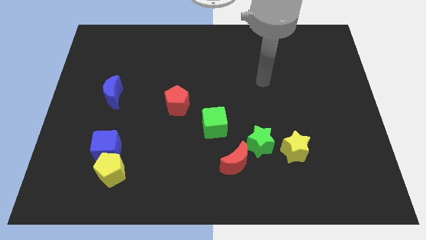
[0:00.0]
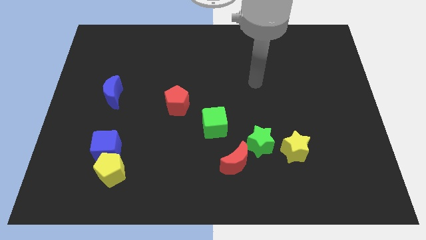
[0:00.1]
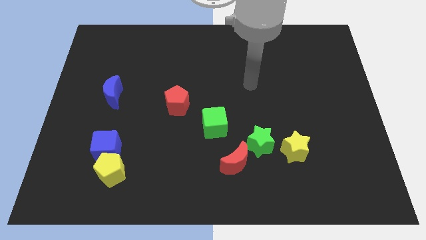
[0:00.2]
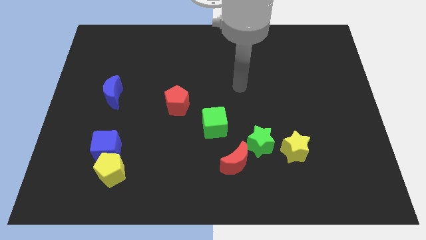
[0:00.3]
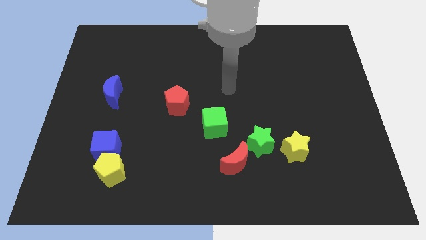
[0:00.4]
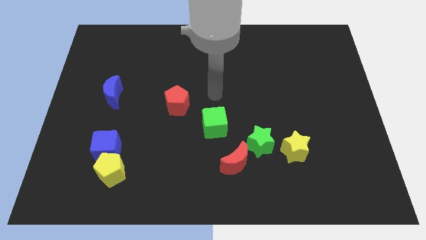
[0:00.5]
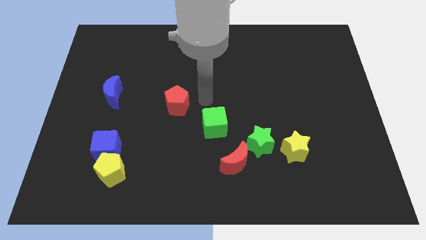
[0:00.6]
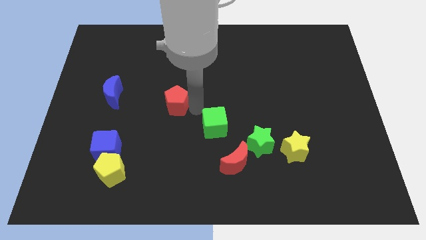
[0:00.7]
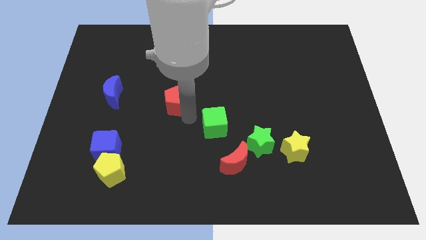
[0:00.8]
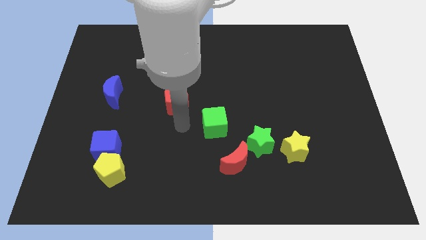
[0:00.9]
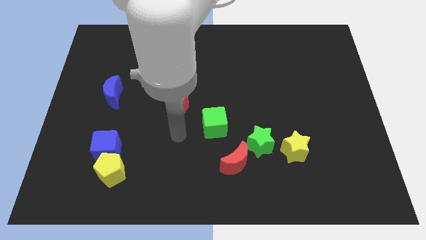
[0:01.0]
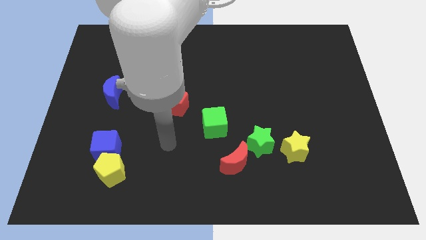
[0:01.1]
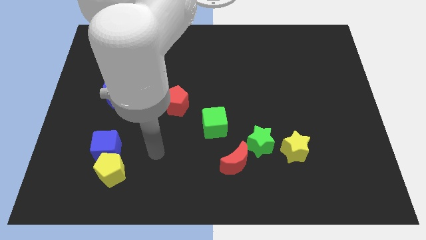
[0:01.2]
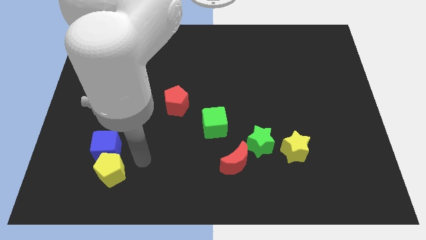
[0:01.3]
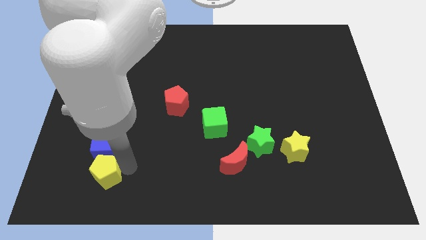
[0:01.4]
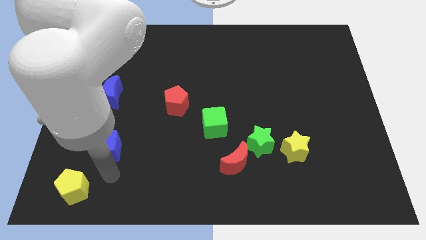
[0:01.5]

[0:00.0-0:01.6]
move the blue cube away from the yellow pentagon

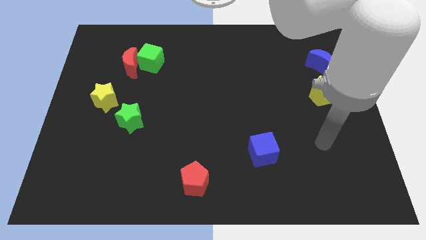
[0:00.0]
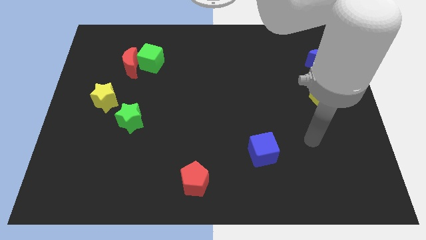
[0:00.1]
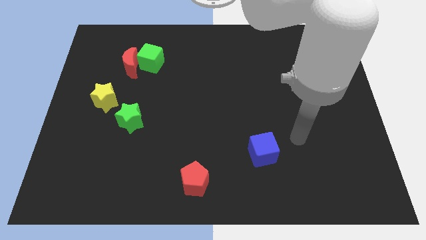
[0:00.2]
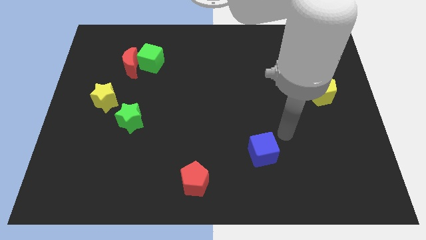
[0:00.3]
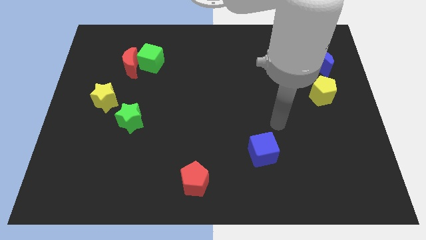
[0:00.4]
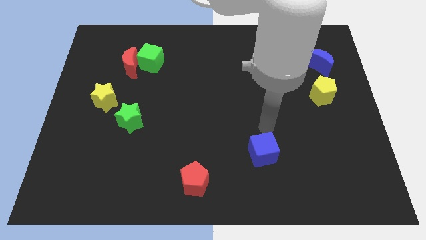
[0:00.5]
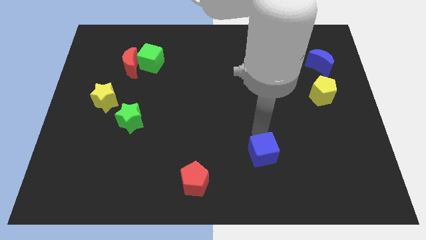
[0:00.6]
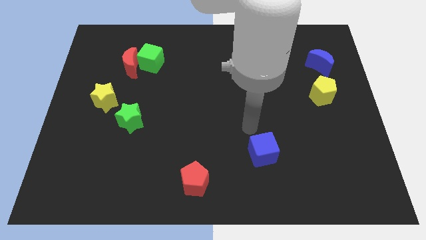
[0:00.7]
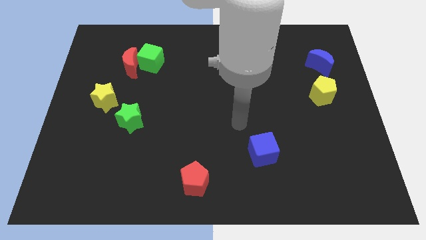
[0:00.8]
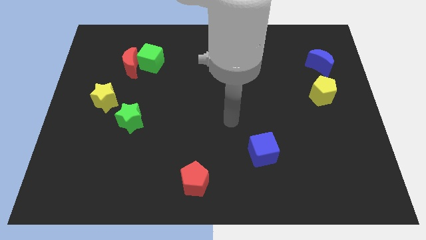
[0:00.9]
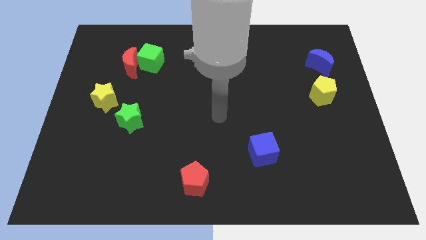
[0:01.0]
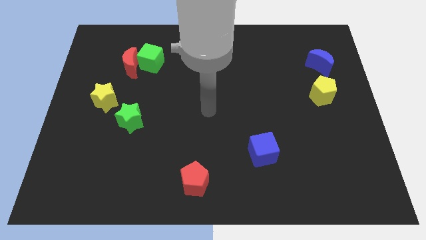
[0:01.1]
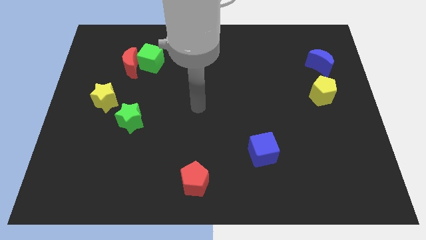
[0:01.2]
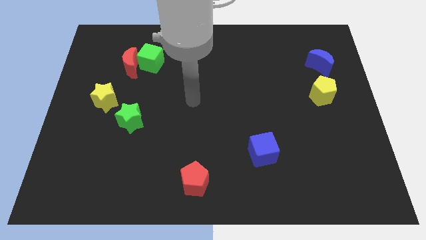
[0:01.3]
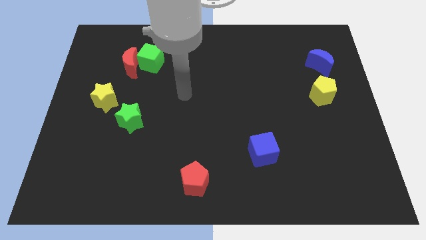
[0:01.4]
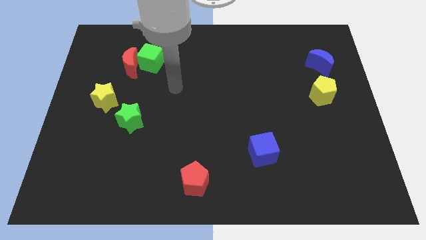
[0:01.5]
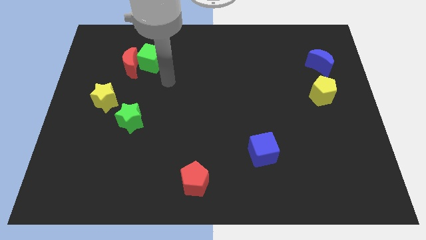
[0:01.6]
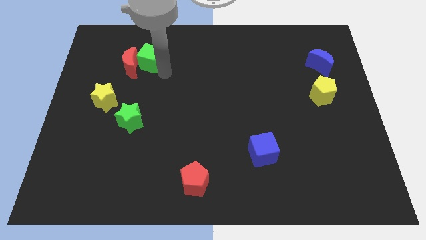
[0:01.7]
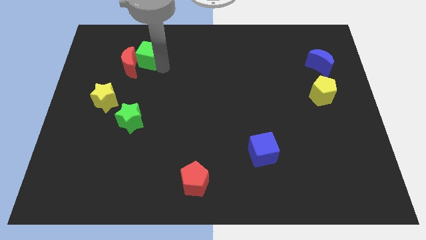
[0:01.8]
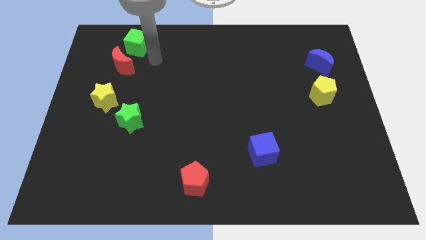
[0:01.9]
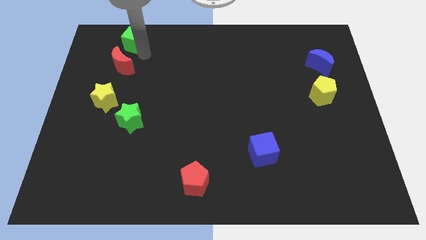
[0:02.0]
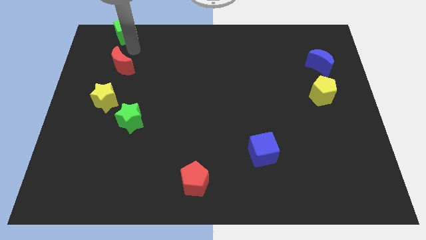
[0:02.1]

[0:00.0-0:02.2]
pull the red moon apart from the green cube

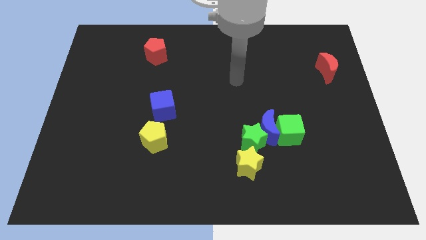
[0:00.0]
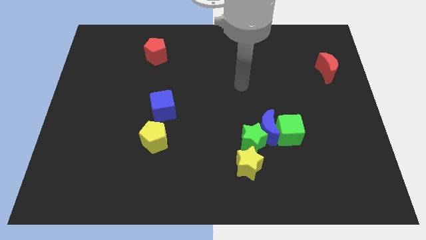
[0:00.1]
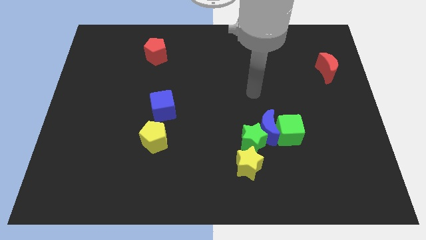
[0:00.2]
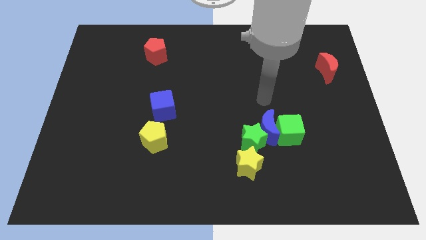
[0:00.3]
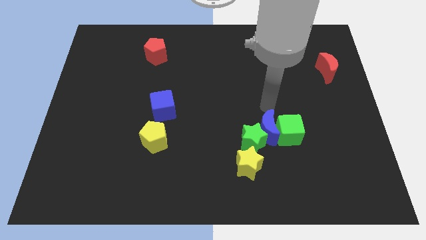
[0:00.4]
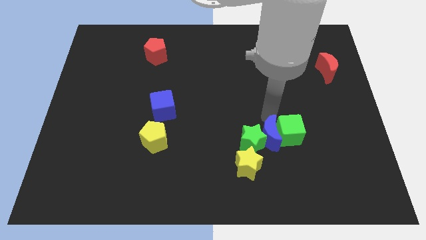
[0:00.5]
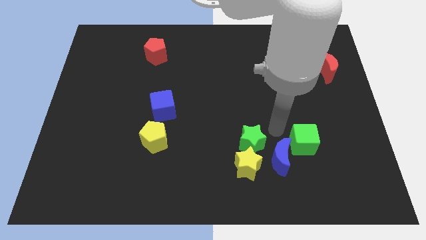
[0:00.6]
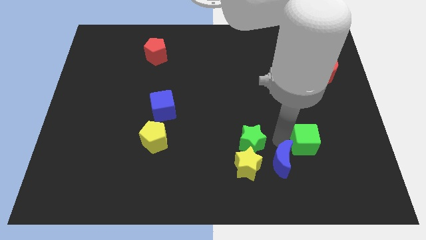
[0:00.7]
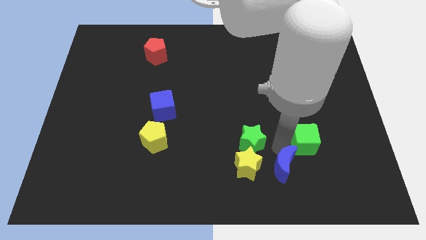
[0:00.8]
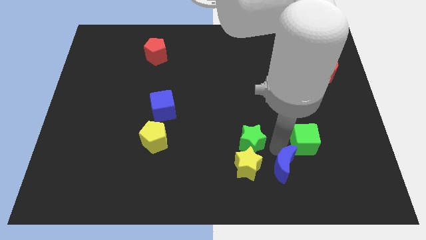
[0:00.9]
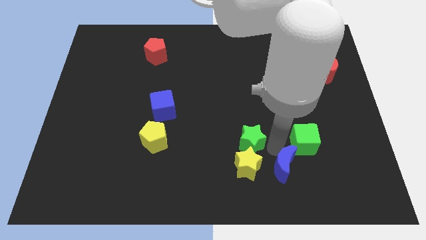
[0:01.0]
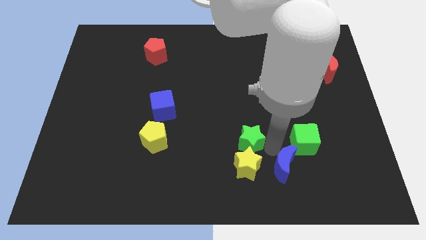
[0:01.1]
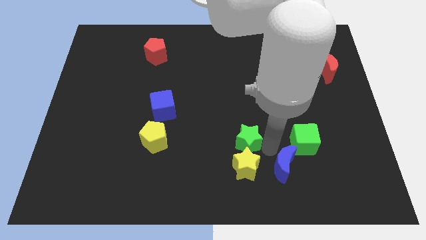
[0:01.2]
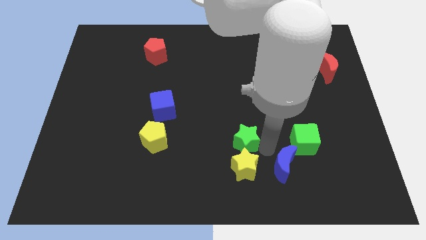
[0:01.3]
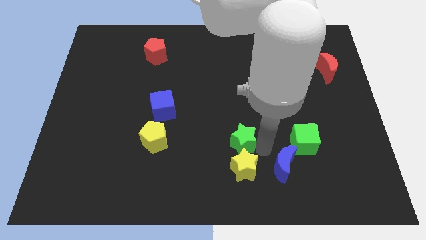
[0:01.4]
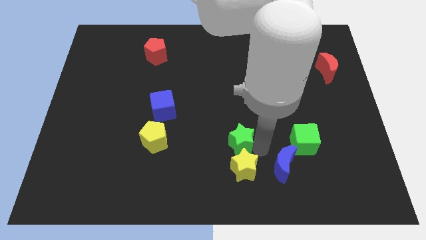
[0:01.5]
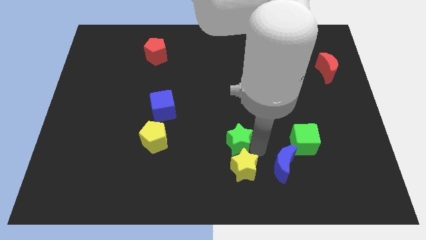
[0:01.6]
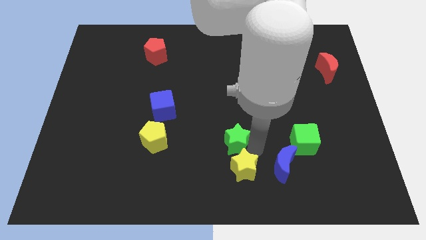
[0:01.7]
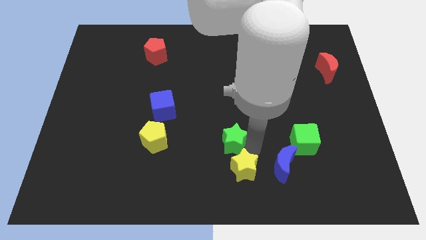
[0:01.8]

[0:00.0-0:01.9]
pull the green star apart from the group of blocks

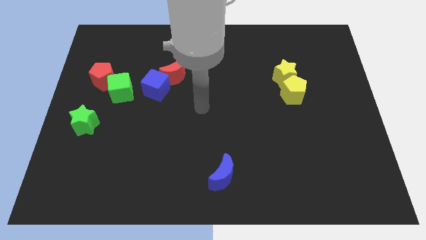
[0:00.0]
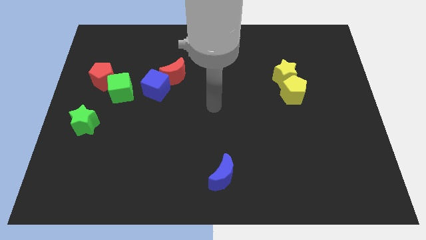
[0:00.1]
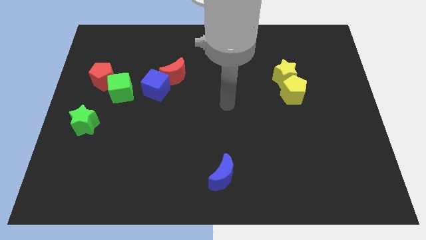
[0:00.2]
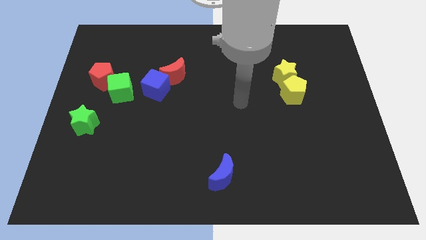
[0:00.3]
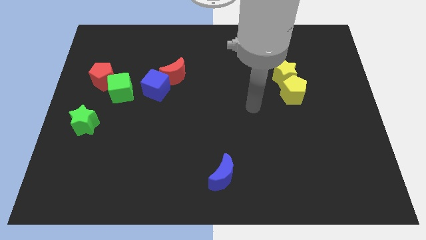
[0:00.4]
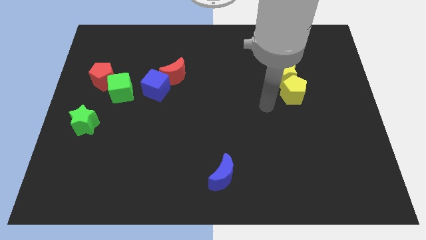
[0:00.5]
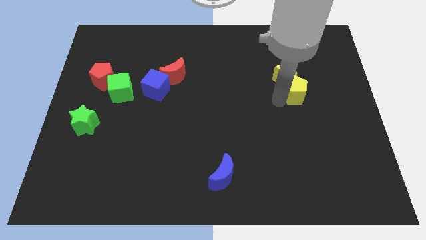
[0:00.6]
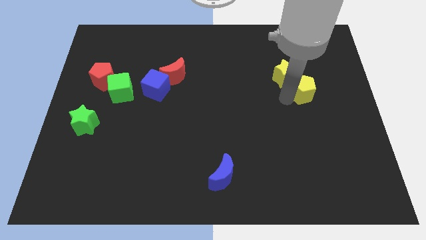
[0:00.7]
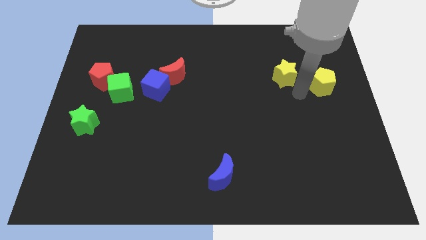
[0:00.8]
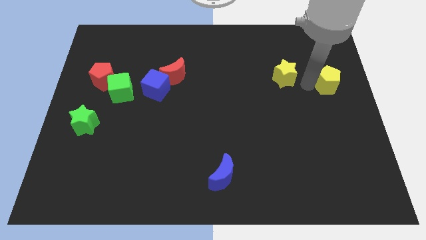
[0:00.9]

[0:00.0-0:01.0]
pull the yellow star apart from the yellow pentagon

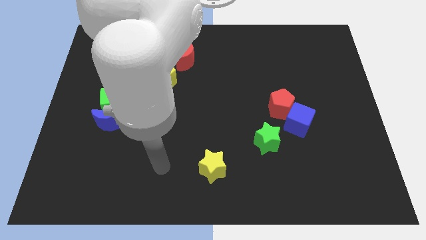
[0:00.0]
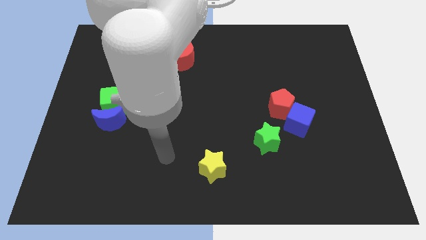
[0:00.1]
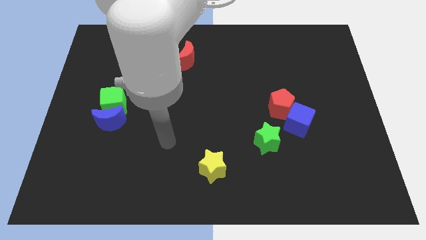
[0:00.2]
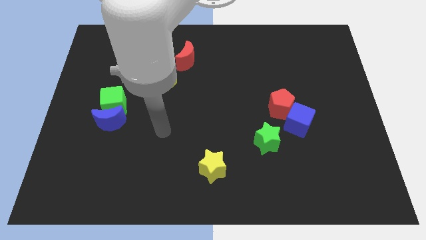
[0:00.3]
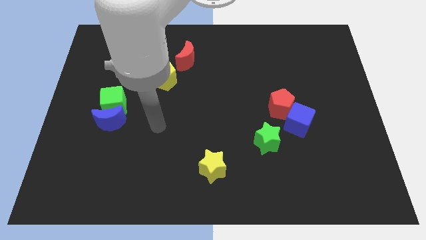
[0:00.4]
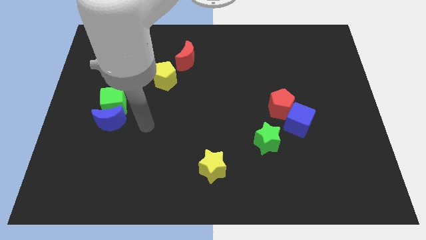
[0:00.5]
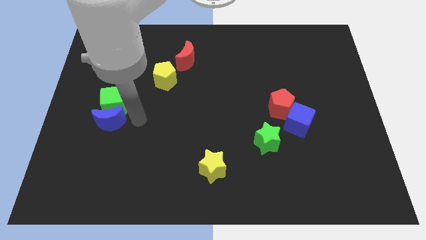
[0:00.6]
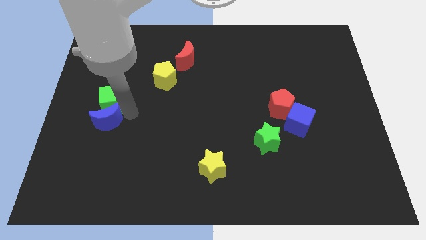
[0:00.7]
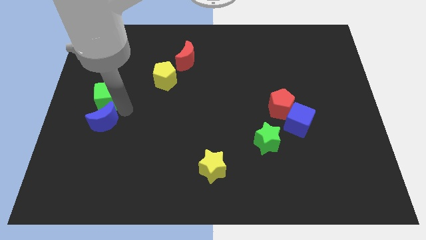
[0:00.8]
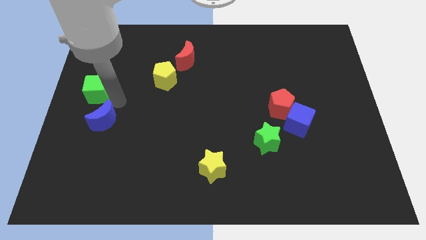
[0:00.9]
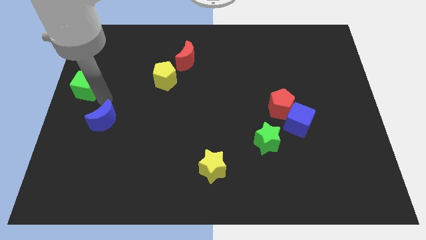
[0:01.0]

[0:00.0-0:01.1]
pull the blue moon apart from the green cube

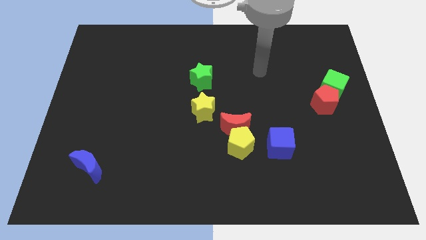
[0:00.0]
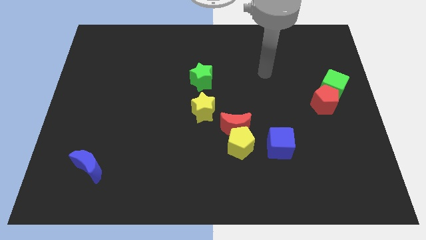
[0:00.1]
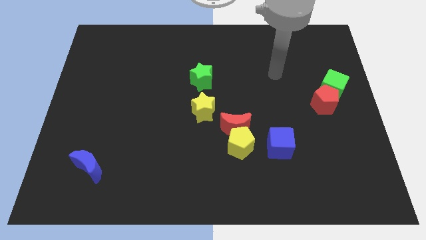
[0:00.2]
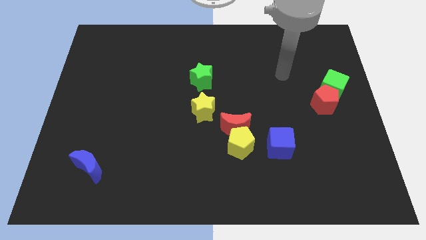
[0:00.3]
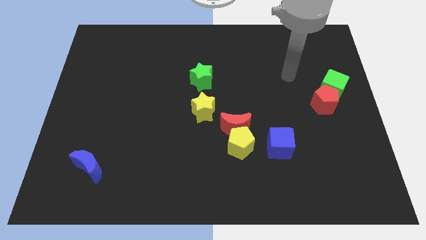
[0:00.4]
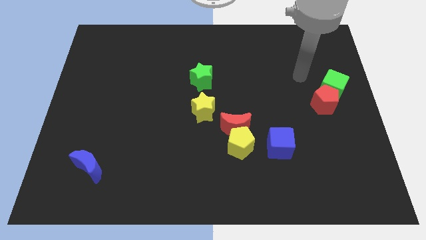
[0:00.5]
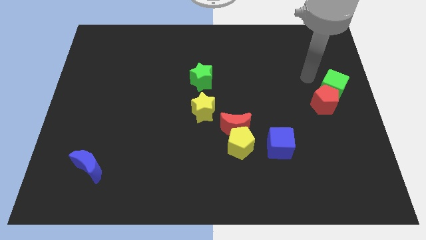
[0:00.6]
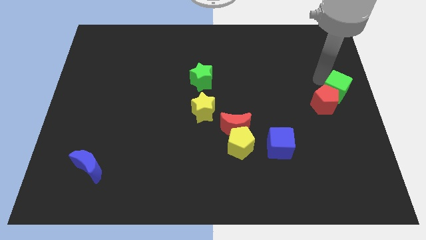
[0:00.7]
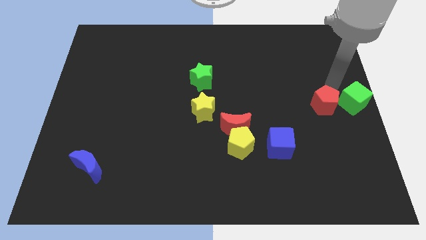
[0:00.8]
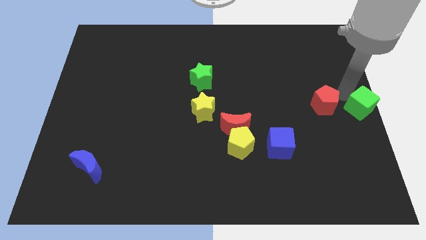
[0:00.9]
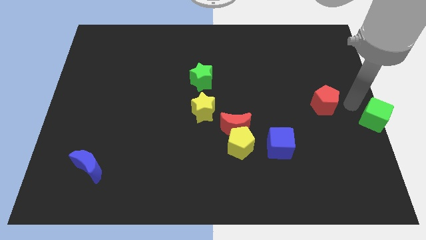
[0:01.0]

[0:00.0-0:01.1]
separate the red pentagon from the green cube

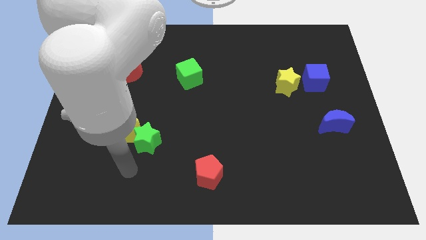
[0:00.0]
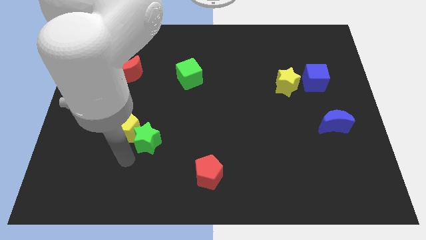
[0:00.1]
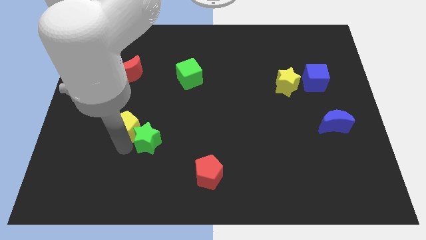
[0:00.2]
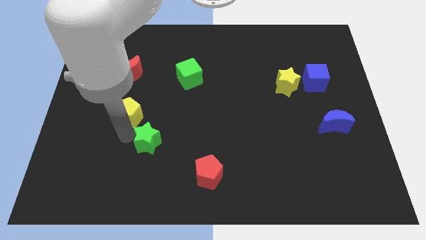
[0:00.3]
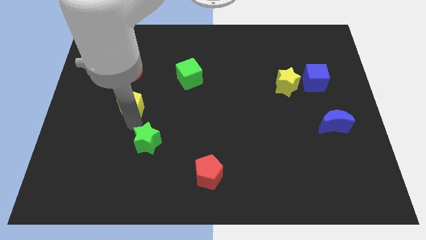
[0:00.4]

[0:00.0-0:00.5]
move the green star away from the yellow pentagon

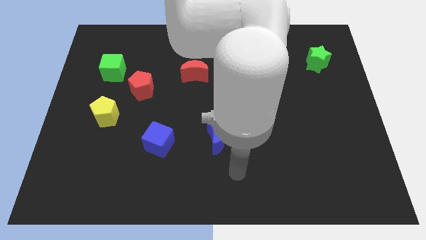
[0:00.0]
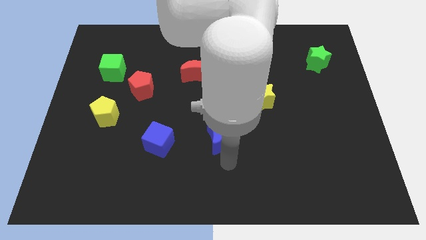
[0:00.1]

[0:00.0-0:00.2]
move the red pentagon away from the green cube
